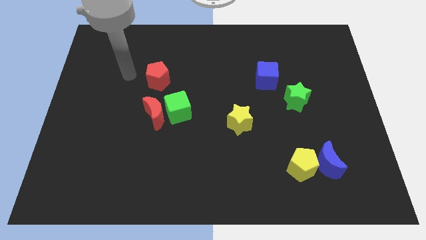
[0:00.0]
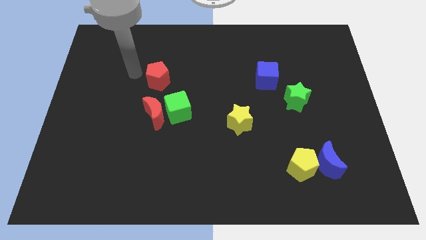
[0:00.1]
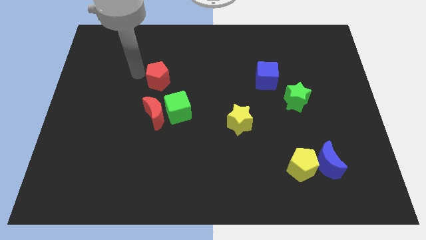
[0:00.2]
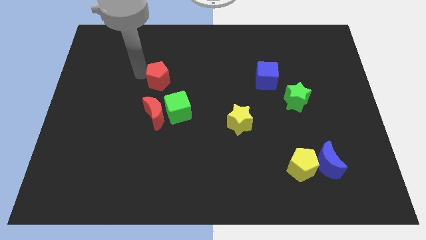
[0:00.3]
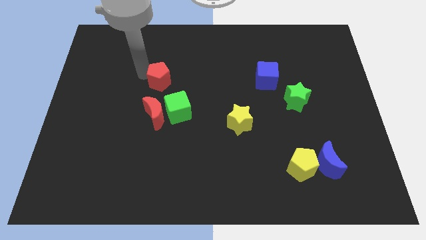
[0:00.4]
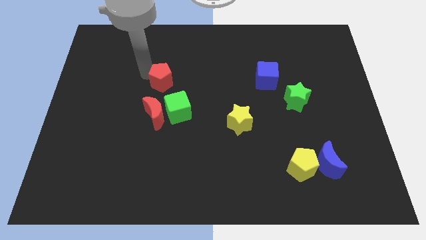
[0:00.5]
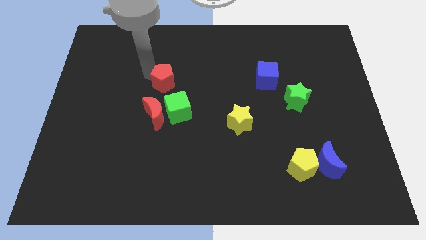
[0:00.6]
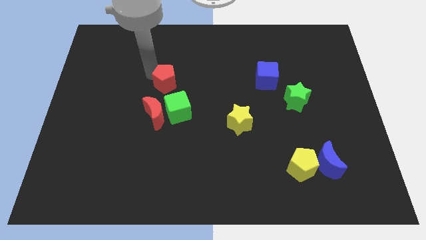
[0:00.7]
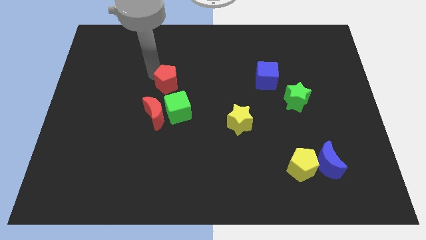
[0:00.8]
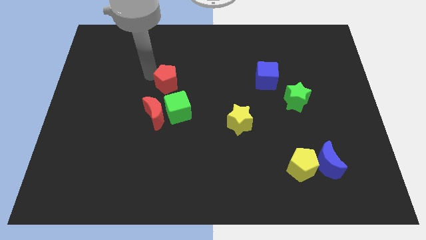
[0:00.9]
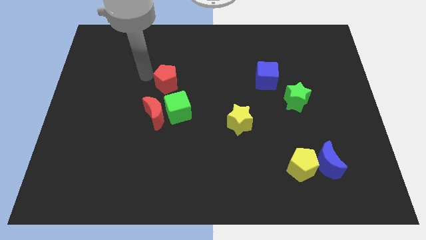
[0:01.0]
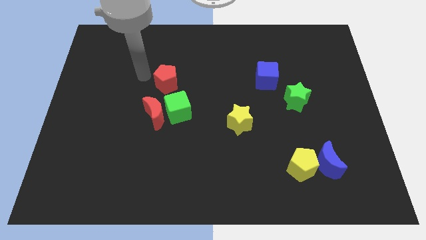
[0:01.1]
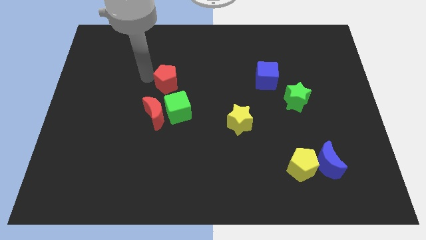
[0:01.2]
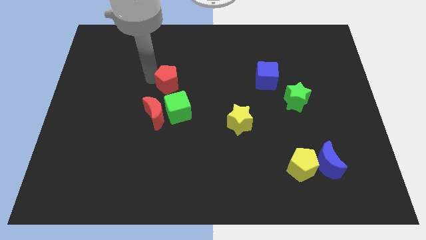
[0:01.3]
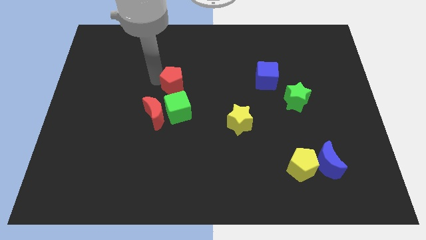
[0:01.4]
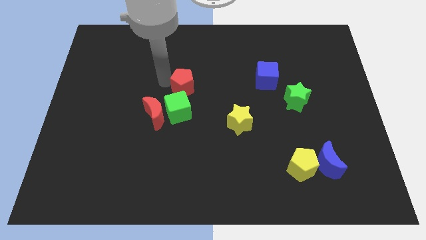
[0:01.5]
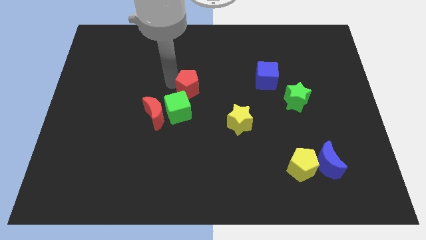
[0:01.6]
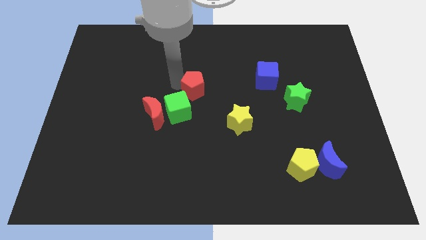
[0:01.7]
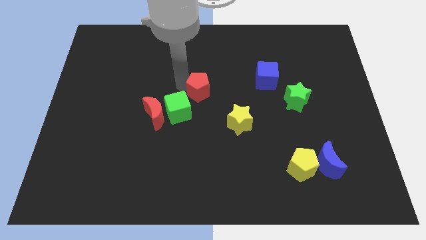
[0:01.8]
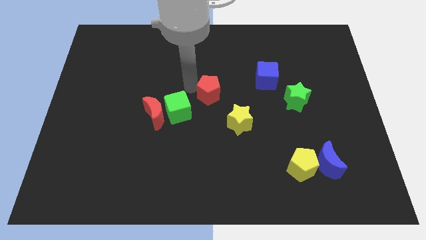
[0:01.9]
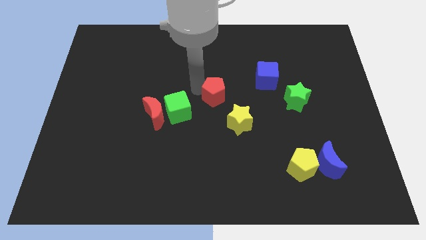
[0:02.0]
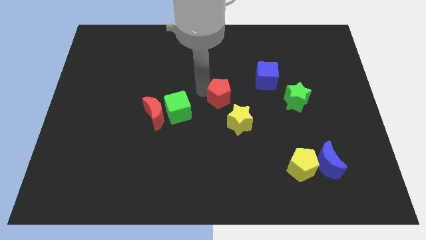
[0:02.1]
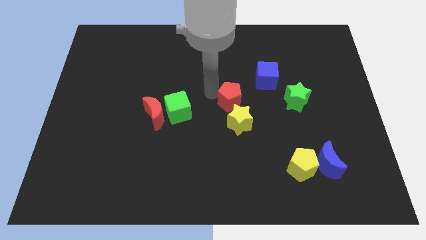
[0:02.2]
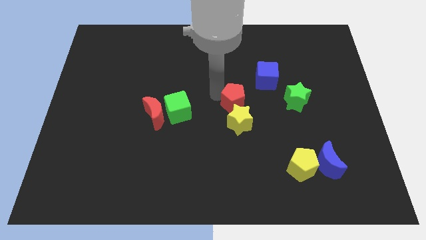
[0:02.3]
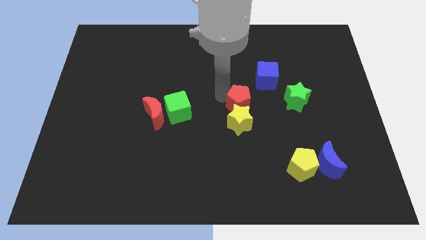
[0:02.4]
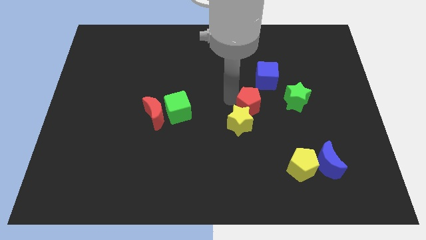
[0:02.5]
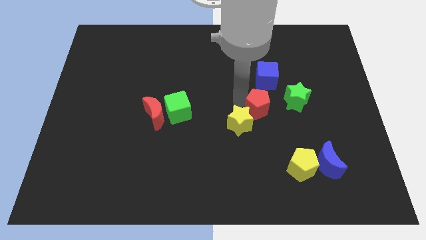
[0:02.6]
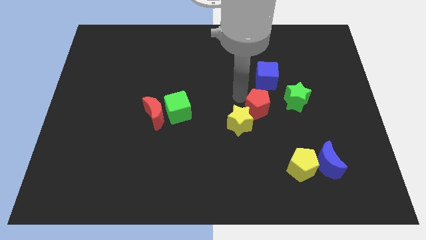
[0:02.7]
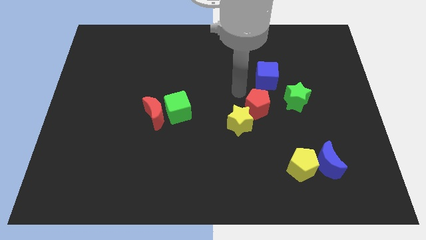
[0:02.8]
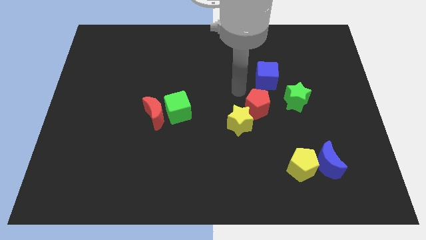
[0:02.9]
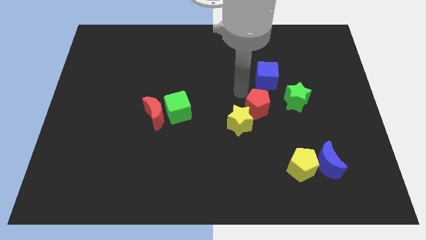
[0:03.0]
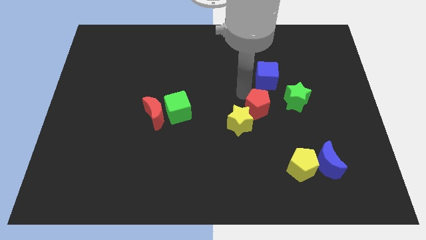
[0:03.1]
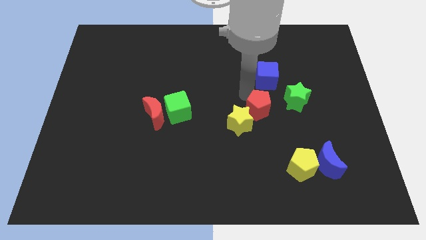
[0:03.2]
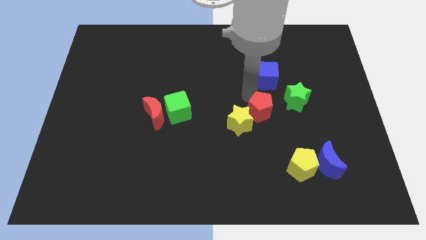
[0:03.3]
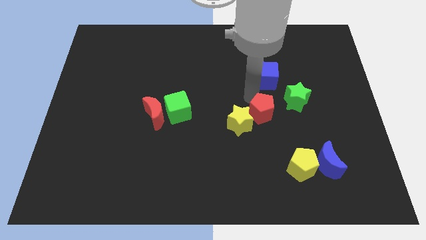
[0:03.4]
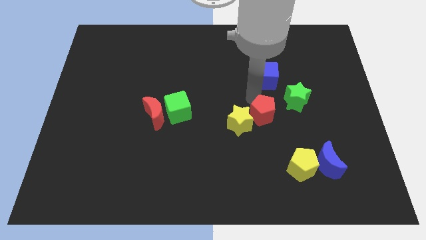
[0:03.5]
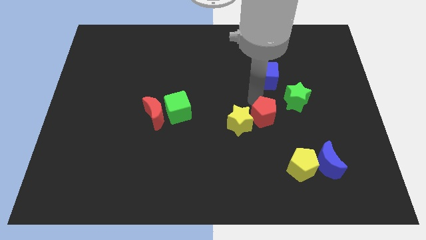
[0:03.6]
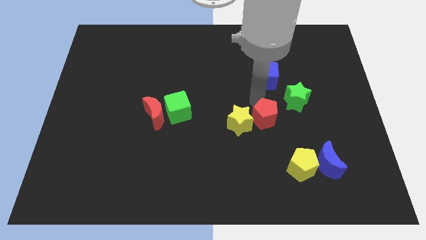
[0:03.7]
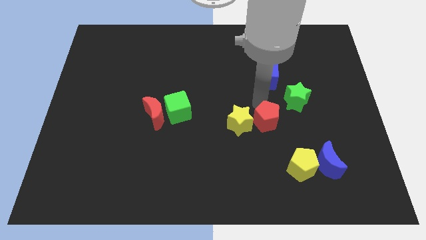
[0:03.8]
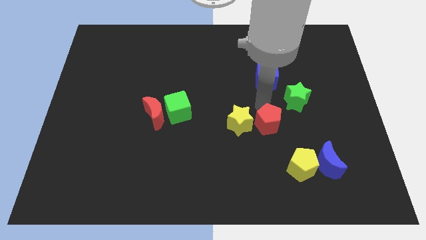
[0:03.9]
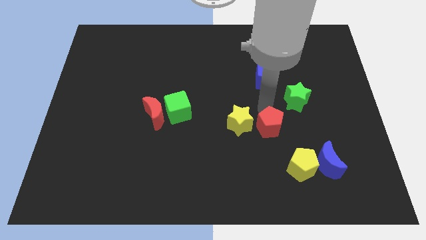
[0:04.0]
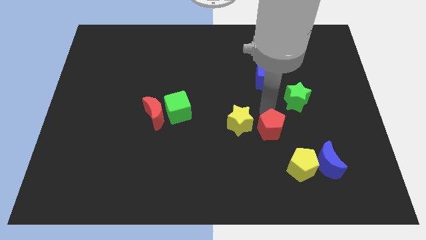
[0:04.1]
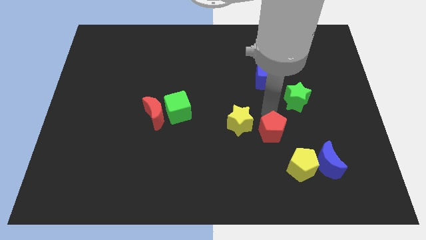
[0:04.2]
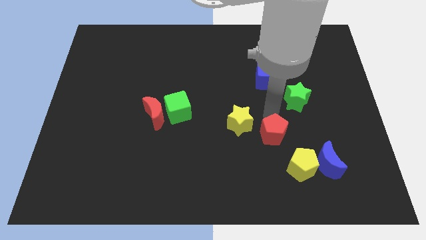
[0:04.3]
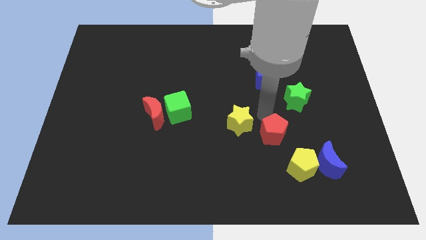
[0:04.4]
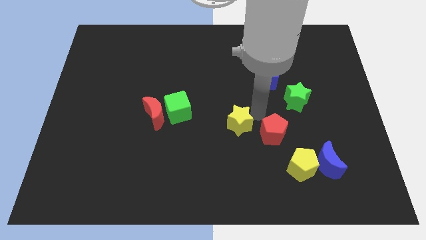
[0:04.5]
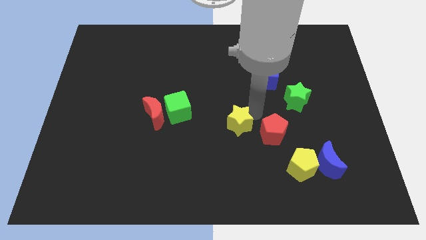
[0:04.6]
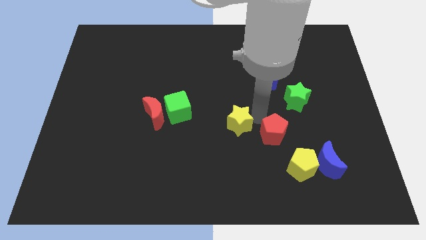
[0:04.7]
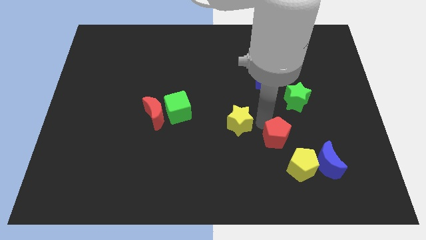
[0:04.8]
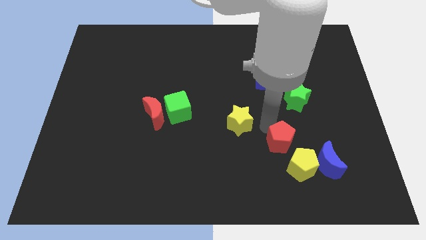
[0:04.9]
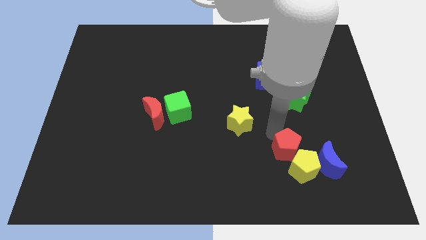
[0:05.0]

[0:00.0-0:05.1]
move the red pentagon next to the yellow pentagon

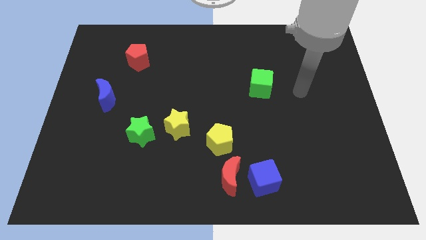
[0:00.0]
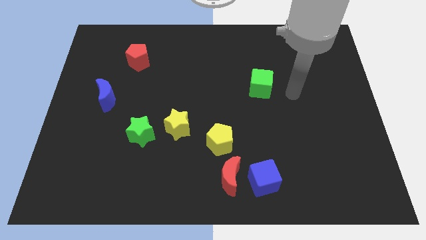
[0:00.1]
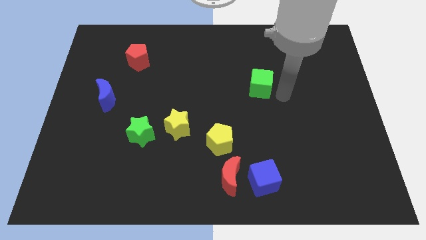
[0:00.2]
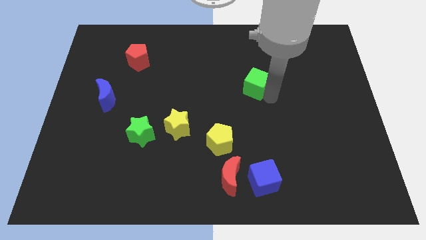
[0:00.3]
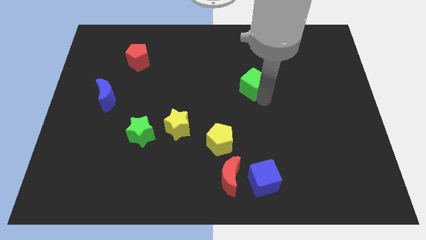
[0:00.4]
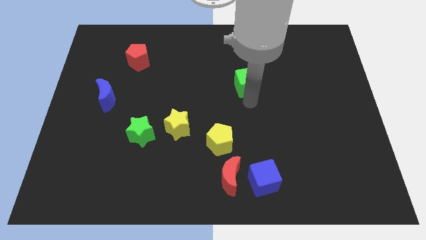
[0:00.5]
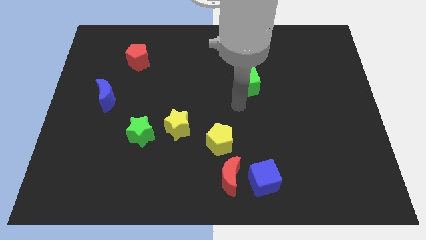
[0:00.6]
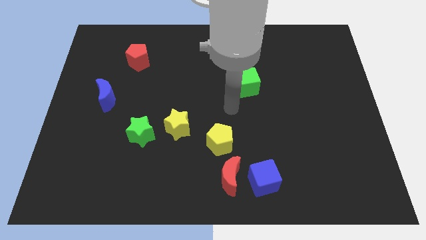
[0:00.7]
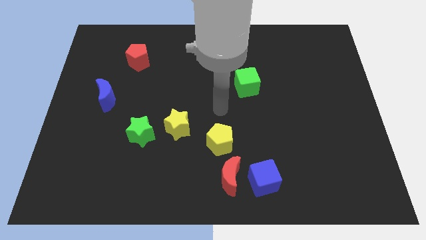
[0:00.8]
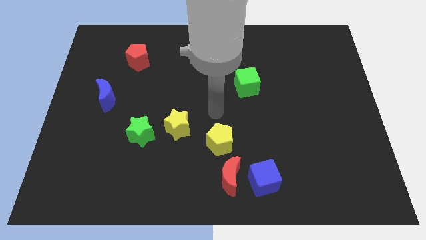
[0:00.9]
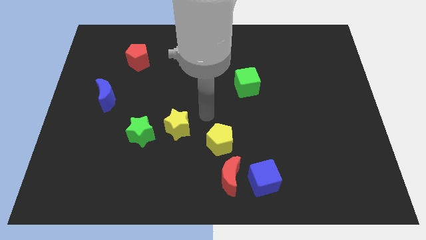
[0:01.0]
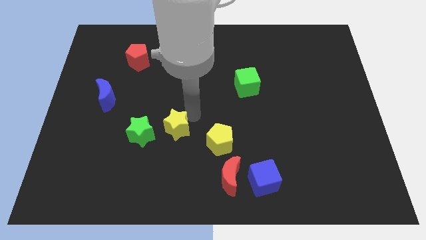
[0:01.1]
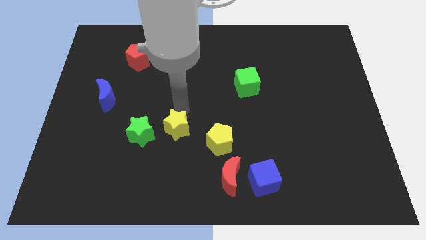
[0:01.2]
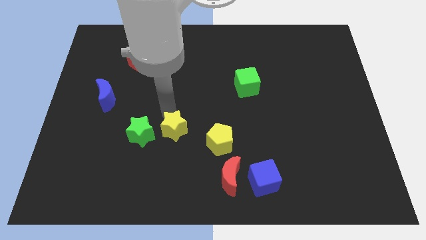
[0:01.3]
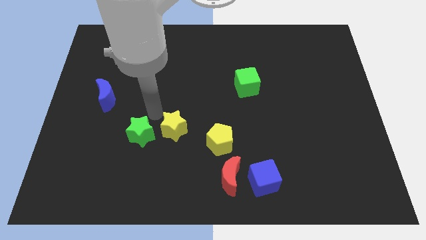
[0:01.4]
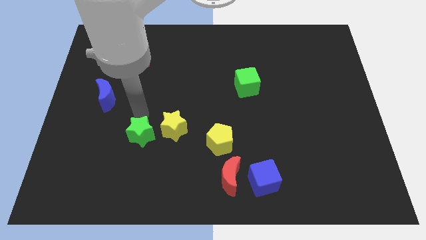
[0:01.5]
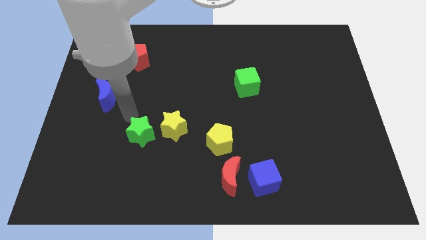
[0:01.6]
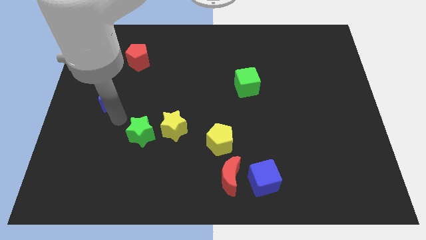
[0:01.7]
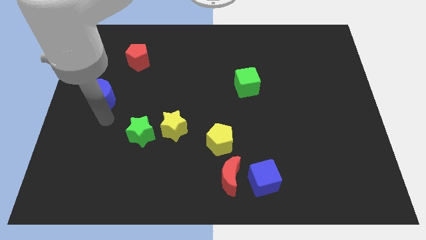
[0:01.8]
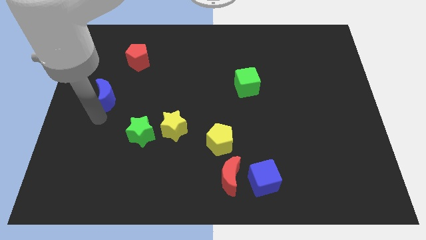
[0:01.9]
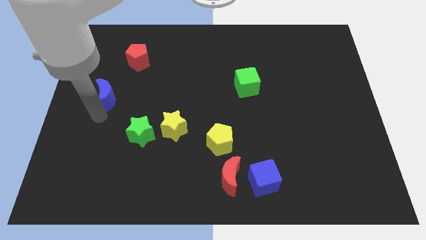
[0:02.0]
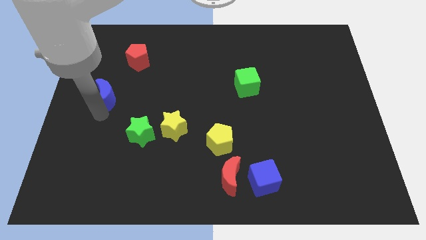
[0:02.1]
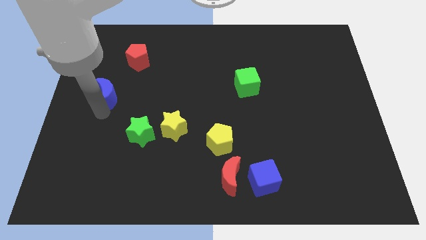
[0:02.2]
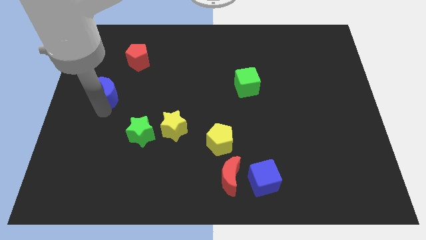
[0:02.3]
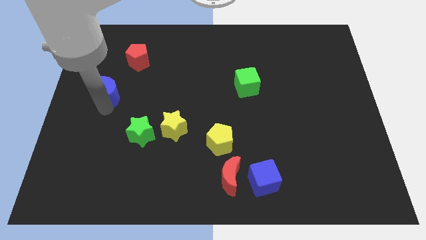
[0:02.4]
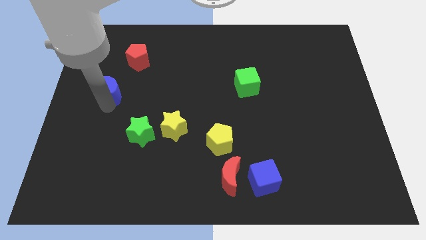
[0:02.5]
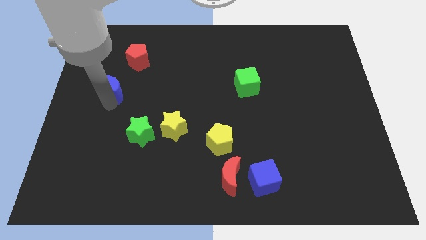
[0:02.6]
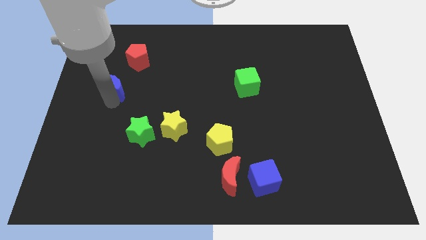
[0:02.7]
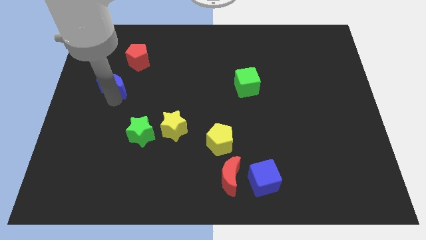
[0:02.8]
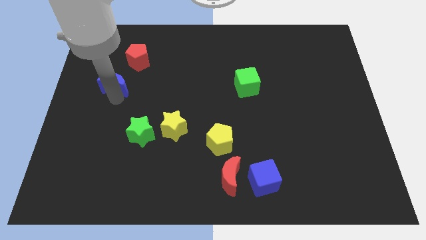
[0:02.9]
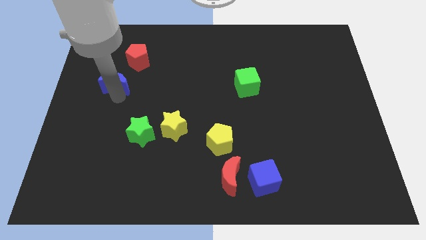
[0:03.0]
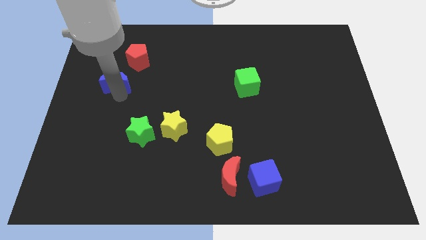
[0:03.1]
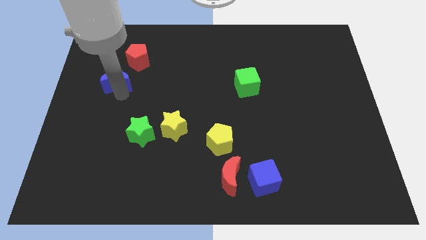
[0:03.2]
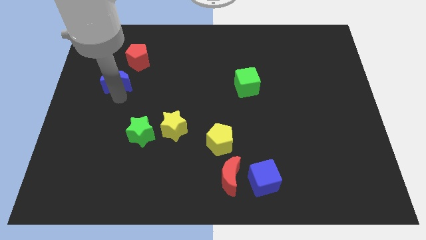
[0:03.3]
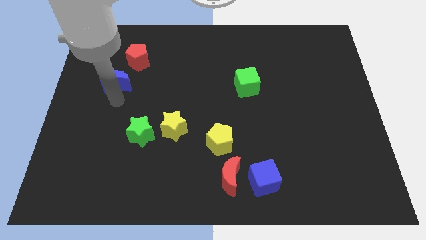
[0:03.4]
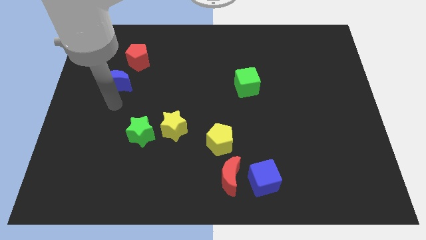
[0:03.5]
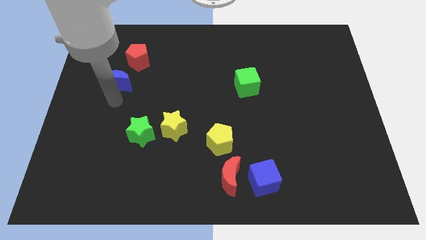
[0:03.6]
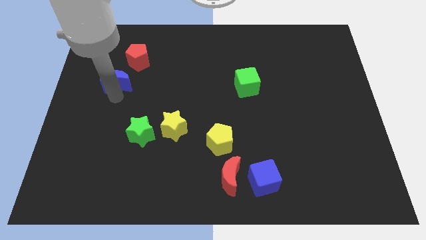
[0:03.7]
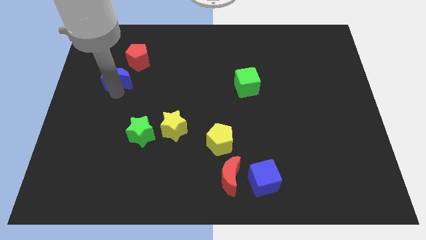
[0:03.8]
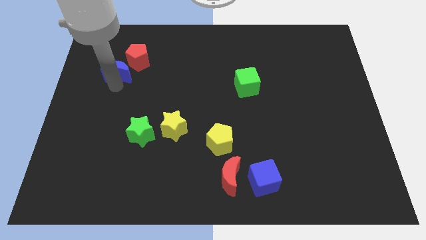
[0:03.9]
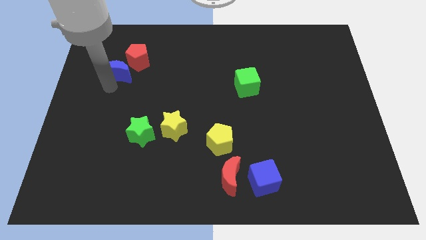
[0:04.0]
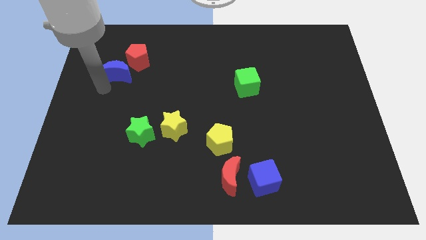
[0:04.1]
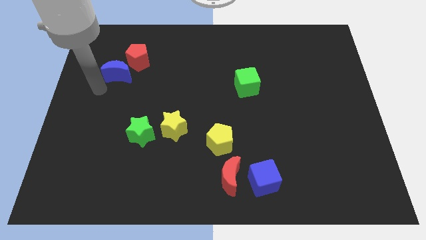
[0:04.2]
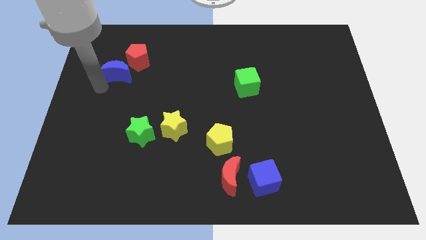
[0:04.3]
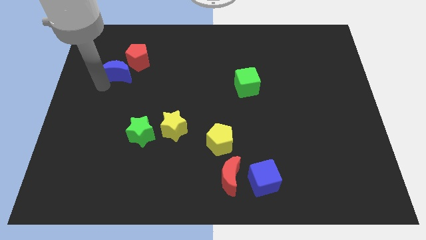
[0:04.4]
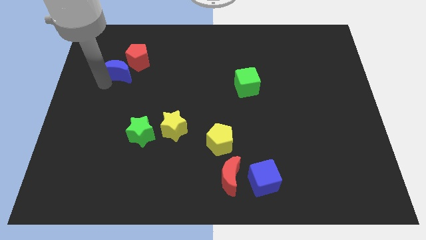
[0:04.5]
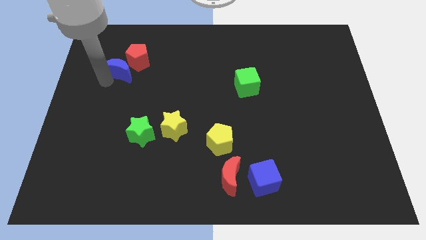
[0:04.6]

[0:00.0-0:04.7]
move the blue moon next to the red pentagon
